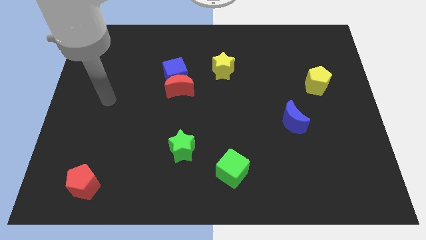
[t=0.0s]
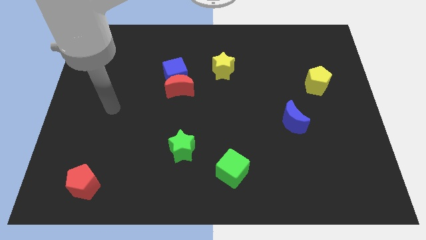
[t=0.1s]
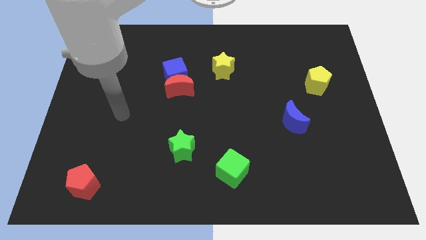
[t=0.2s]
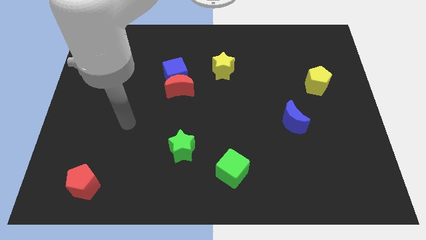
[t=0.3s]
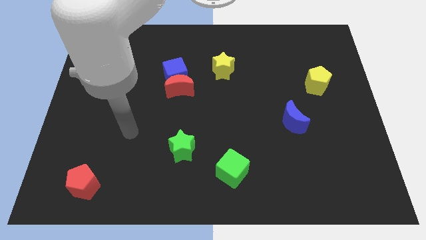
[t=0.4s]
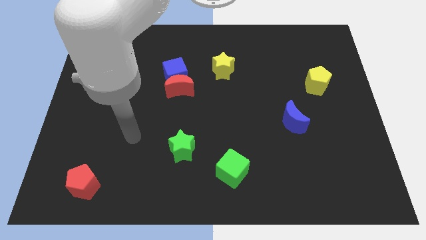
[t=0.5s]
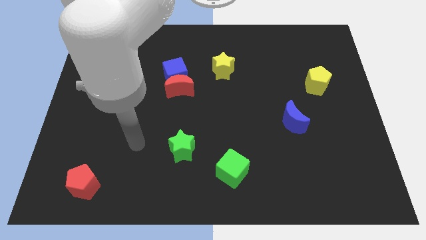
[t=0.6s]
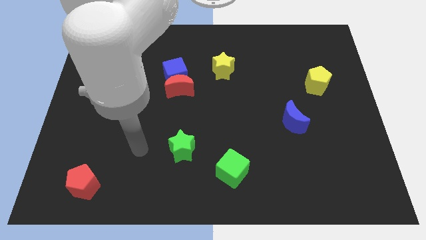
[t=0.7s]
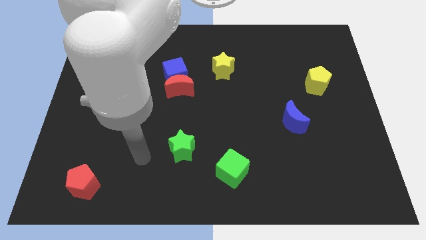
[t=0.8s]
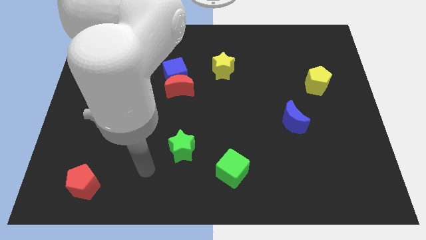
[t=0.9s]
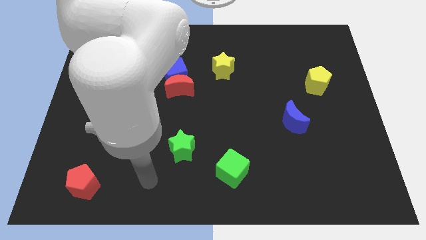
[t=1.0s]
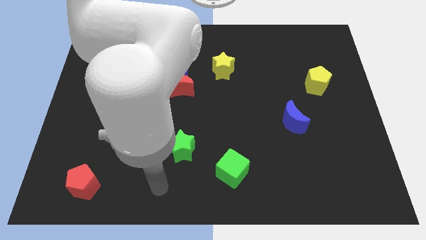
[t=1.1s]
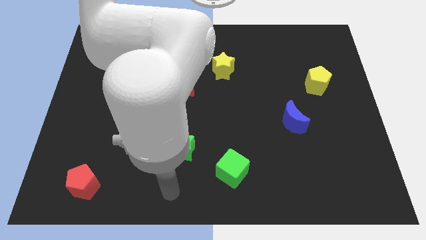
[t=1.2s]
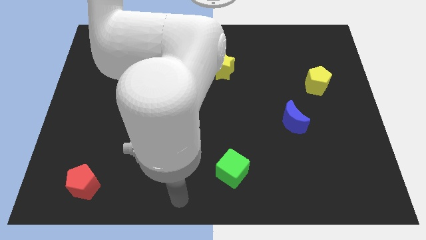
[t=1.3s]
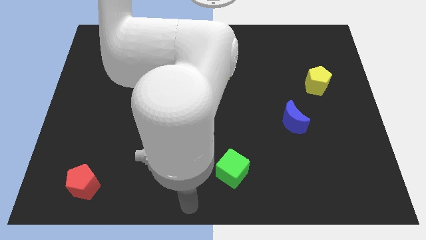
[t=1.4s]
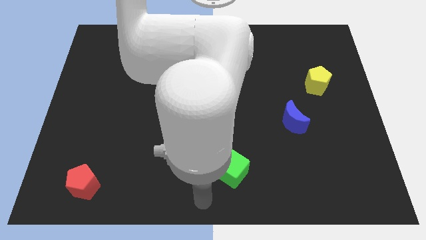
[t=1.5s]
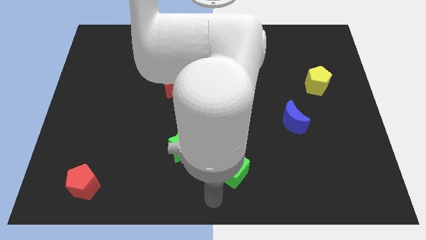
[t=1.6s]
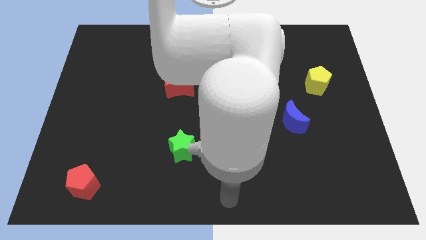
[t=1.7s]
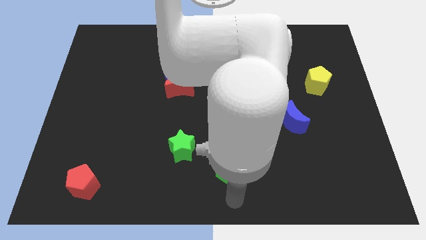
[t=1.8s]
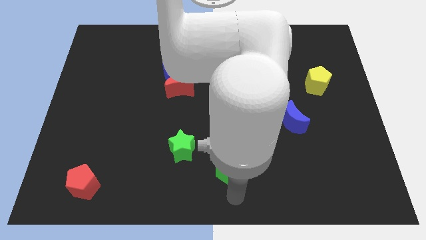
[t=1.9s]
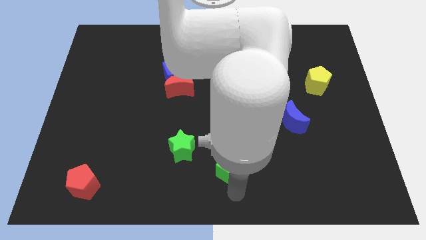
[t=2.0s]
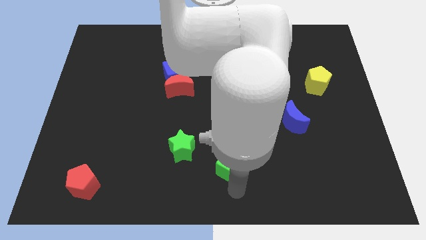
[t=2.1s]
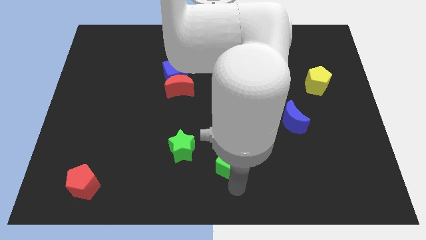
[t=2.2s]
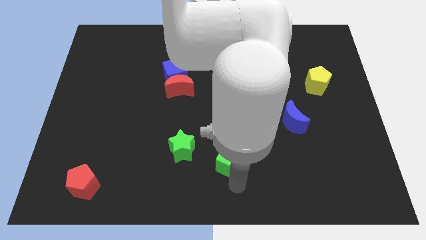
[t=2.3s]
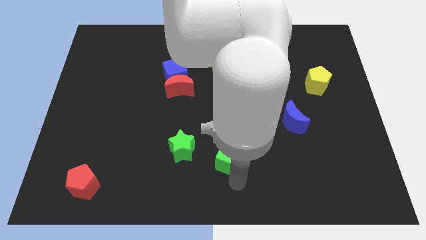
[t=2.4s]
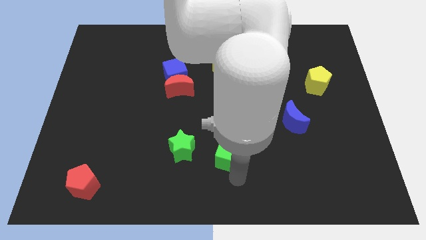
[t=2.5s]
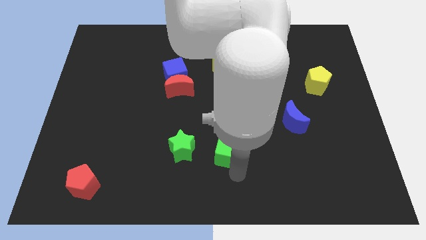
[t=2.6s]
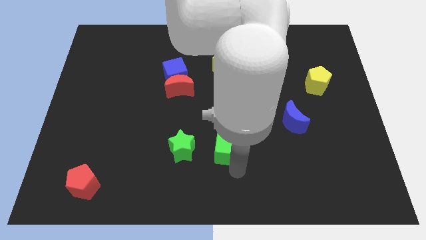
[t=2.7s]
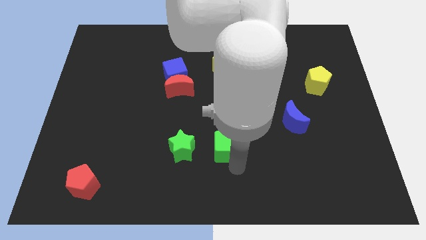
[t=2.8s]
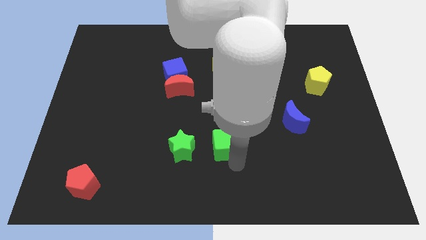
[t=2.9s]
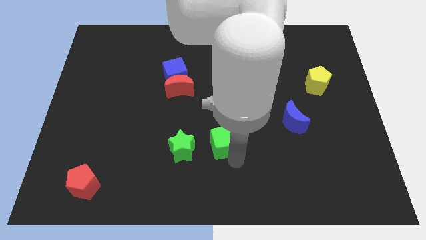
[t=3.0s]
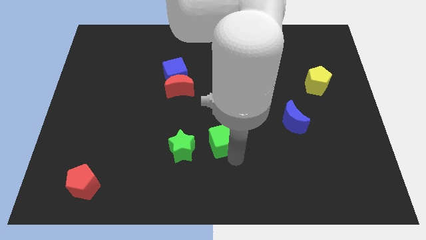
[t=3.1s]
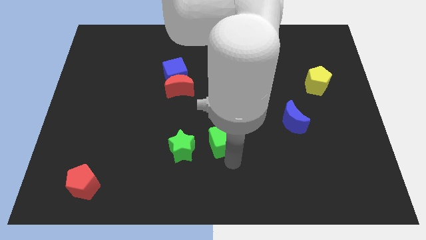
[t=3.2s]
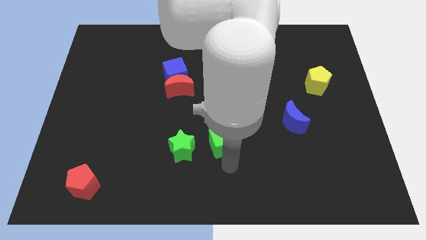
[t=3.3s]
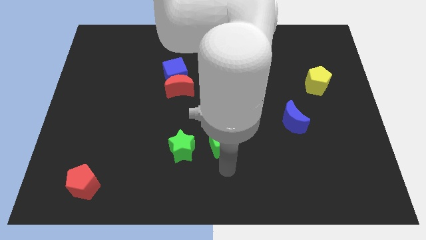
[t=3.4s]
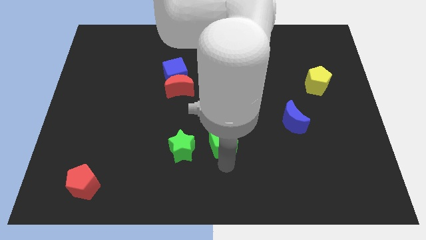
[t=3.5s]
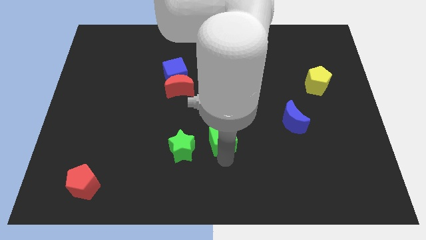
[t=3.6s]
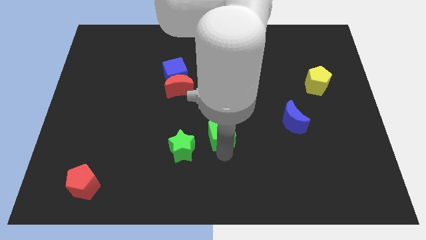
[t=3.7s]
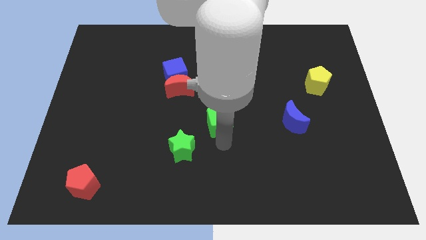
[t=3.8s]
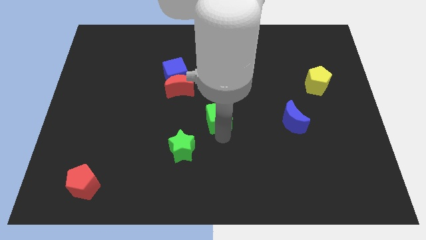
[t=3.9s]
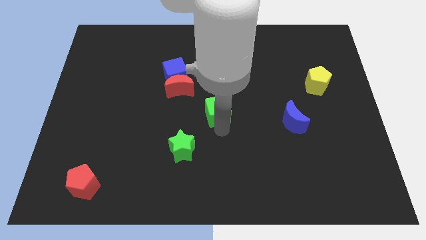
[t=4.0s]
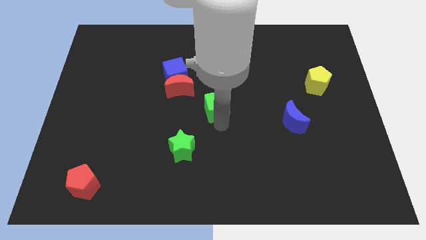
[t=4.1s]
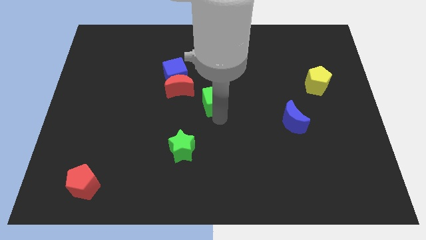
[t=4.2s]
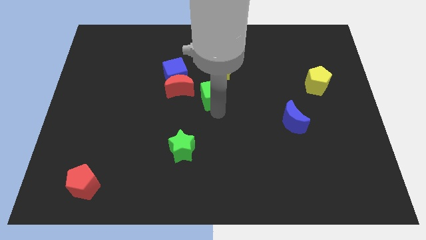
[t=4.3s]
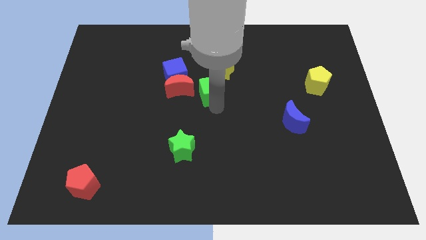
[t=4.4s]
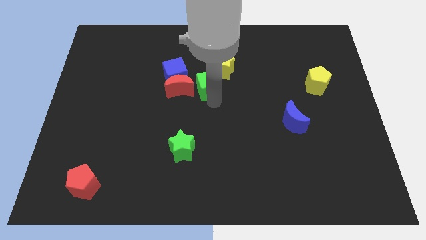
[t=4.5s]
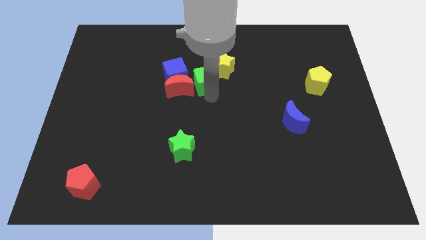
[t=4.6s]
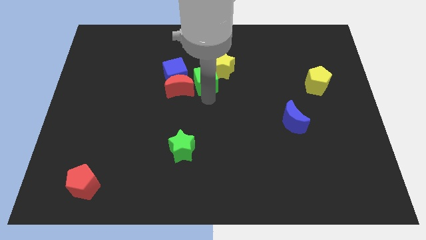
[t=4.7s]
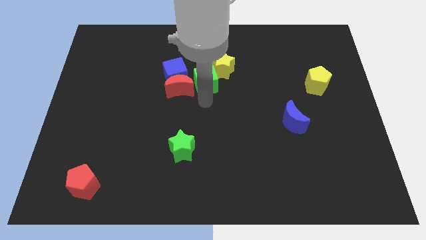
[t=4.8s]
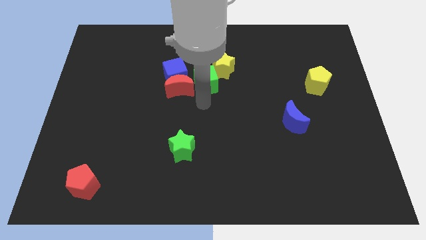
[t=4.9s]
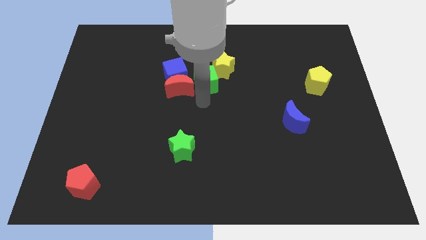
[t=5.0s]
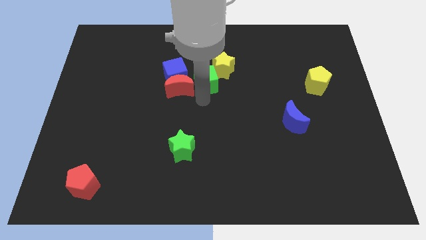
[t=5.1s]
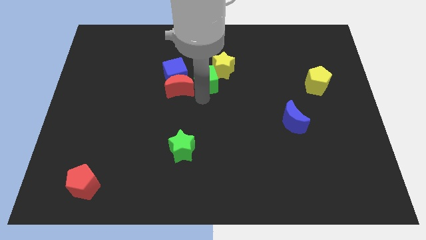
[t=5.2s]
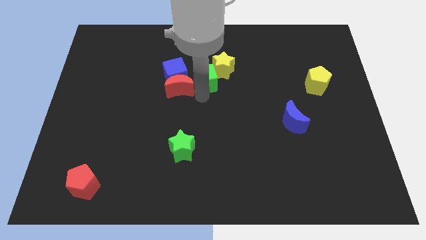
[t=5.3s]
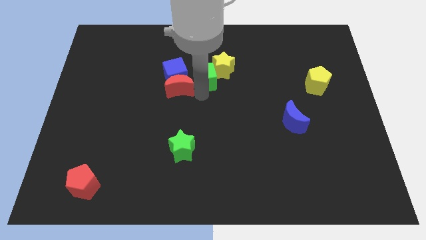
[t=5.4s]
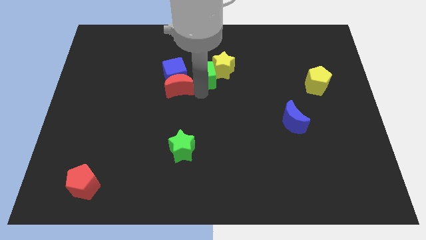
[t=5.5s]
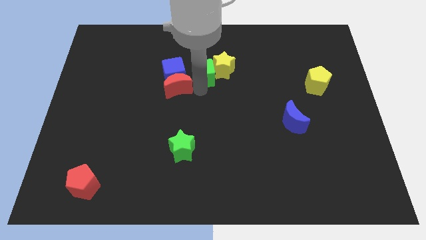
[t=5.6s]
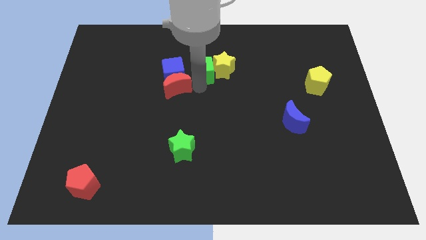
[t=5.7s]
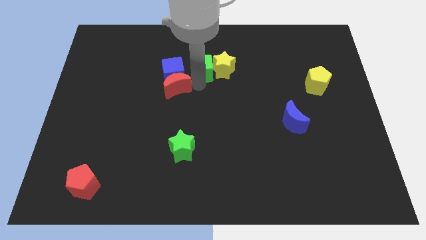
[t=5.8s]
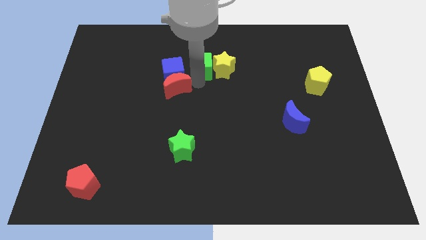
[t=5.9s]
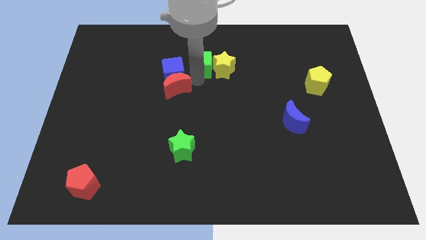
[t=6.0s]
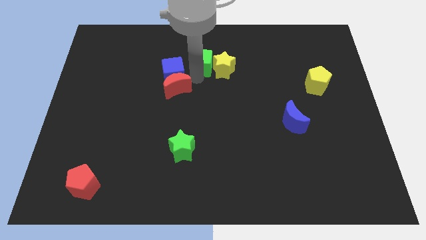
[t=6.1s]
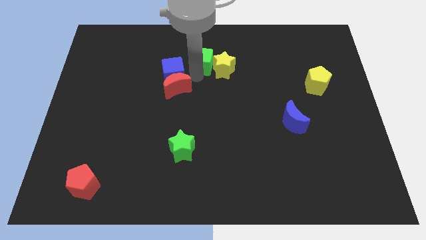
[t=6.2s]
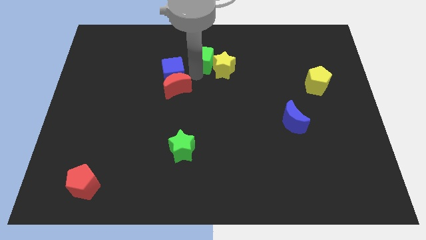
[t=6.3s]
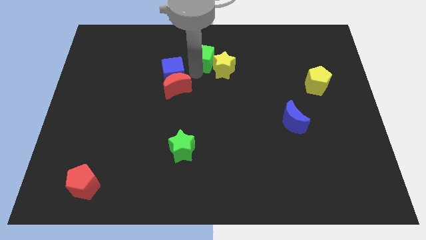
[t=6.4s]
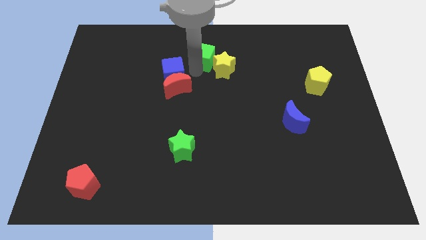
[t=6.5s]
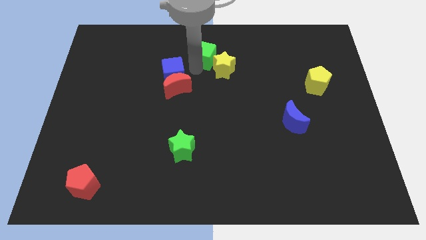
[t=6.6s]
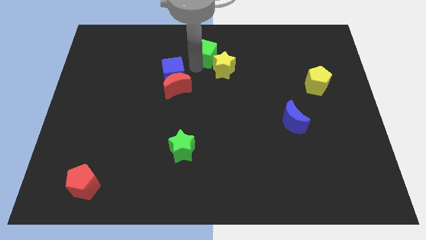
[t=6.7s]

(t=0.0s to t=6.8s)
push the green cube to the top
